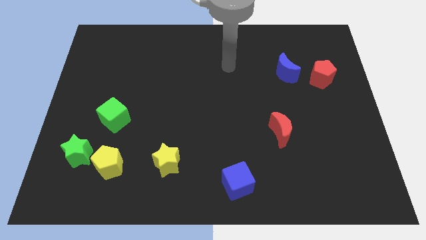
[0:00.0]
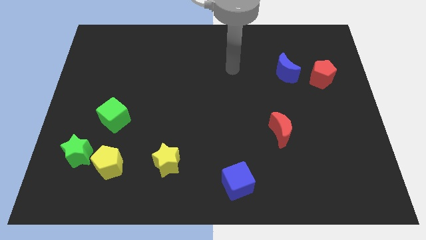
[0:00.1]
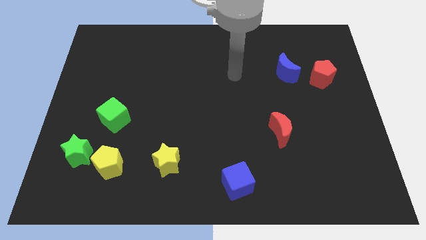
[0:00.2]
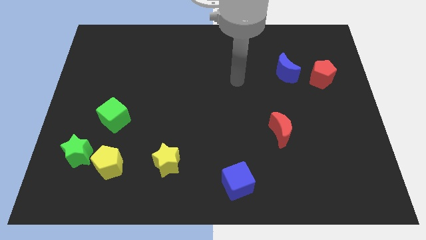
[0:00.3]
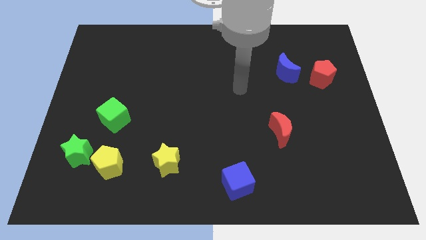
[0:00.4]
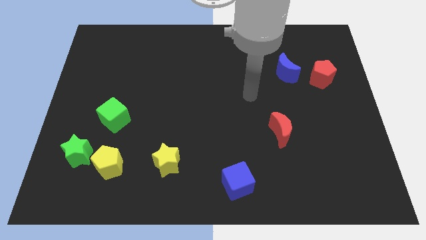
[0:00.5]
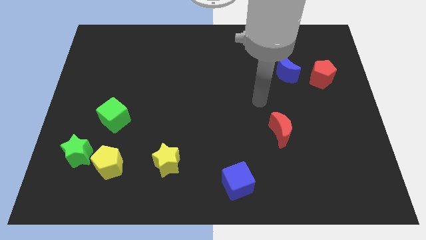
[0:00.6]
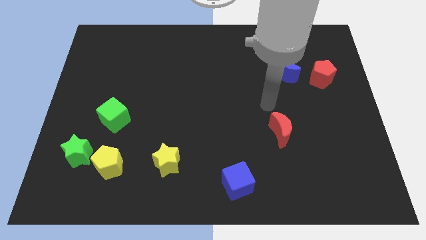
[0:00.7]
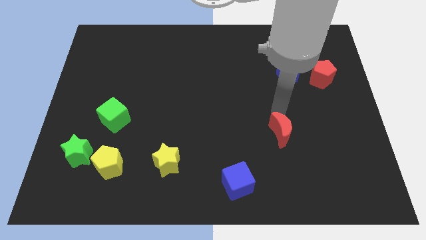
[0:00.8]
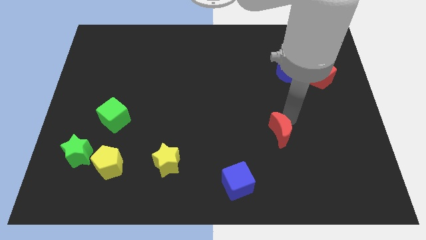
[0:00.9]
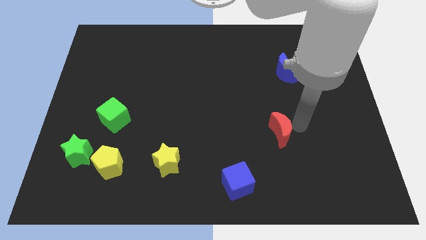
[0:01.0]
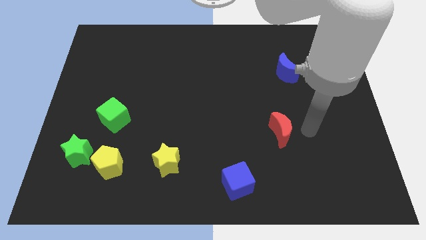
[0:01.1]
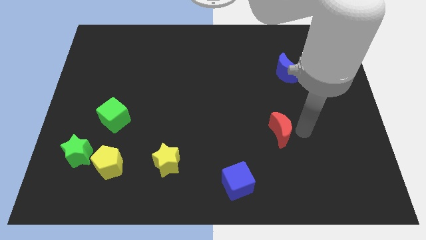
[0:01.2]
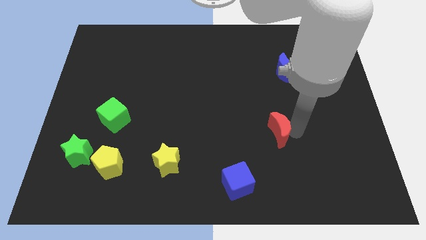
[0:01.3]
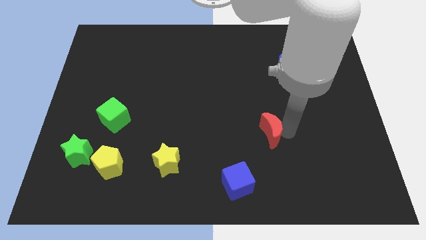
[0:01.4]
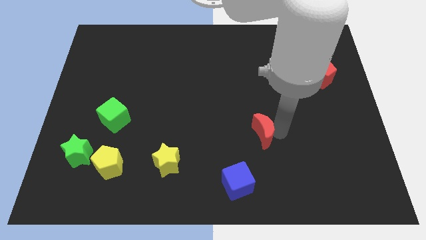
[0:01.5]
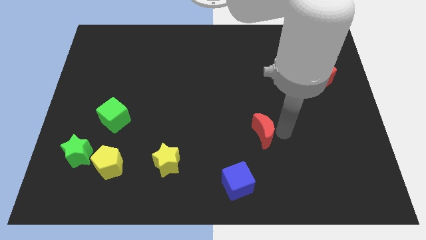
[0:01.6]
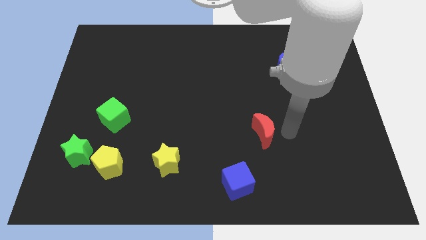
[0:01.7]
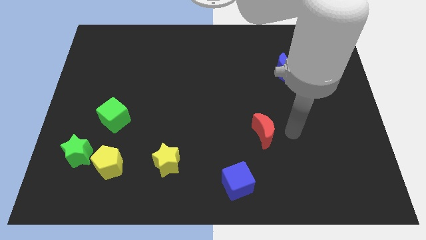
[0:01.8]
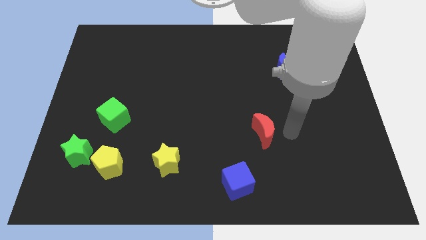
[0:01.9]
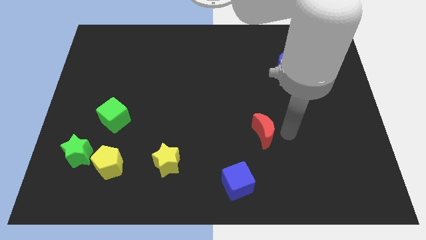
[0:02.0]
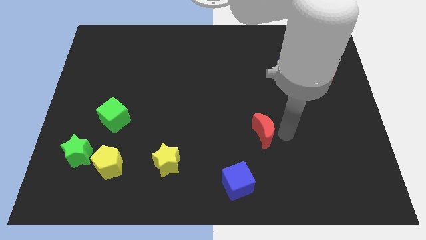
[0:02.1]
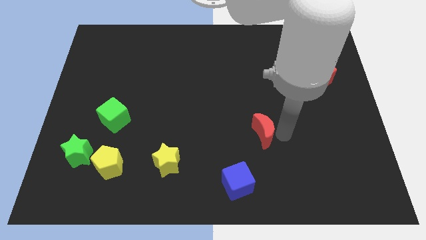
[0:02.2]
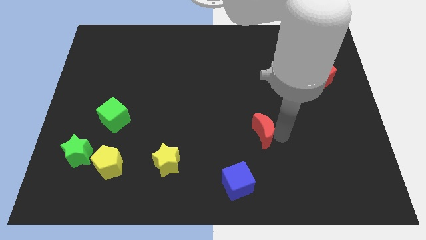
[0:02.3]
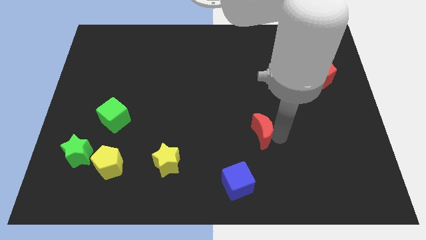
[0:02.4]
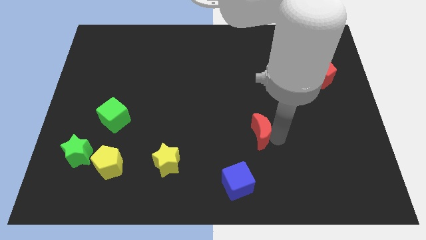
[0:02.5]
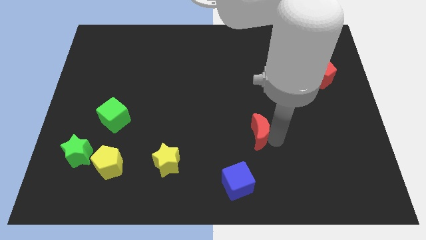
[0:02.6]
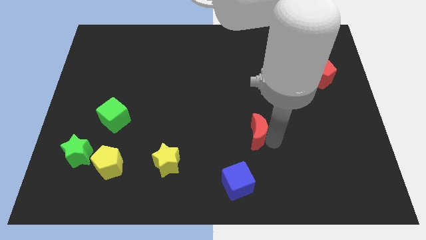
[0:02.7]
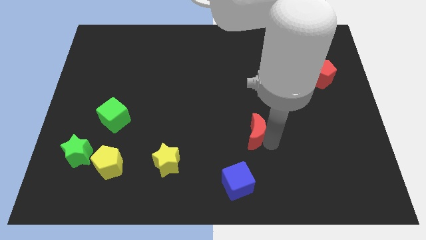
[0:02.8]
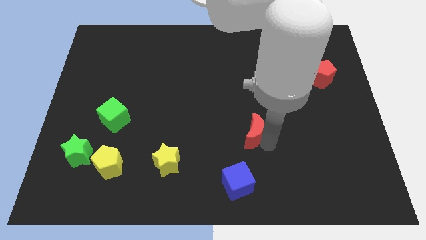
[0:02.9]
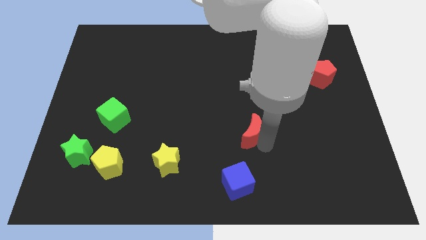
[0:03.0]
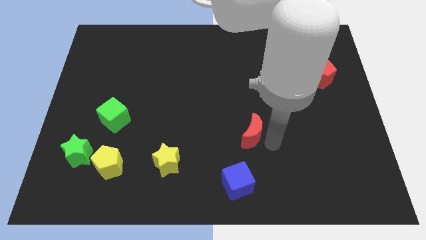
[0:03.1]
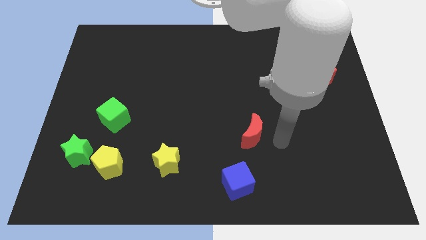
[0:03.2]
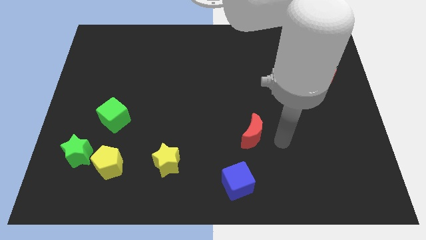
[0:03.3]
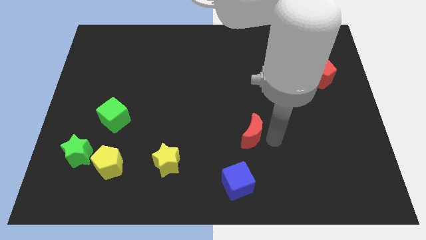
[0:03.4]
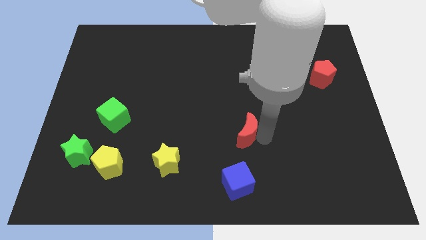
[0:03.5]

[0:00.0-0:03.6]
move the red moon a little bit to the left

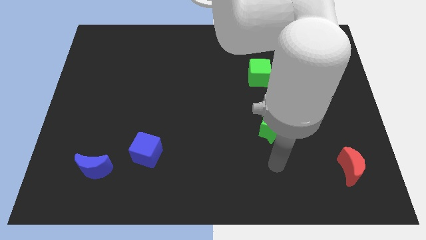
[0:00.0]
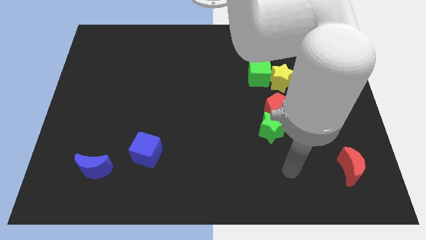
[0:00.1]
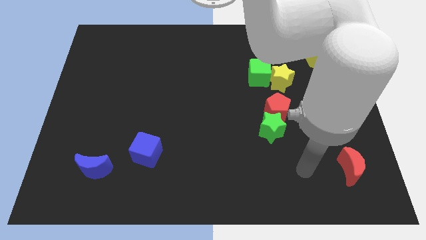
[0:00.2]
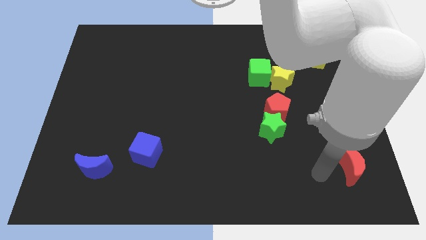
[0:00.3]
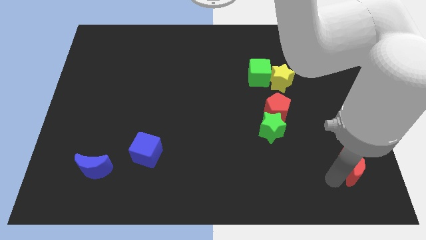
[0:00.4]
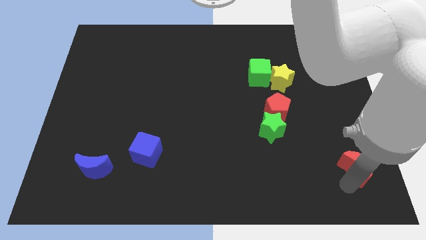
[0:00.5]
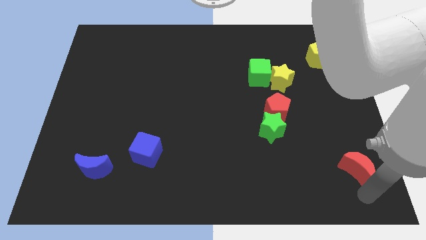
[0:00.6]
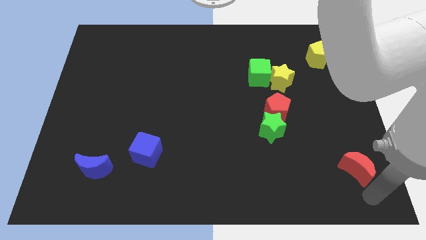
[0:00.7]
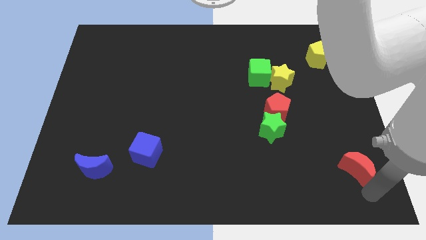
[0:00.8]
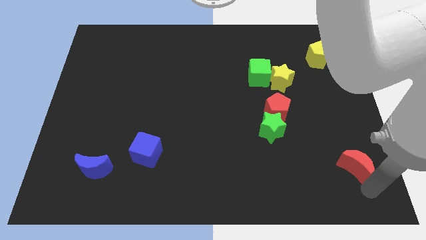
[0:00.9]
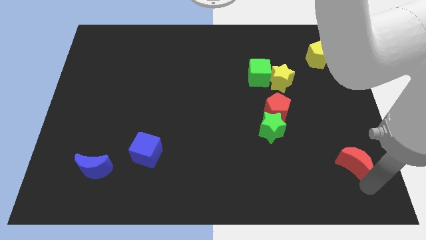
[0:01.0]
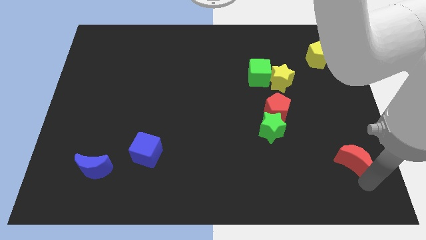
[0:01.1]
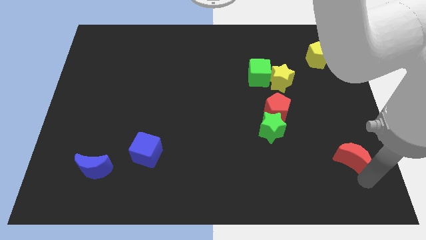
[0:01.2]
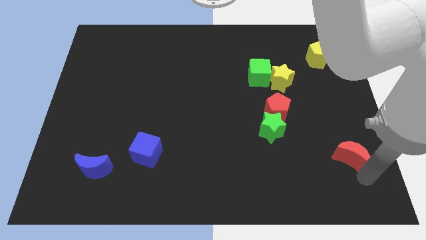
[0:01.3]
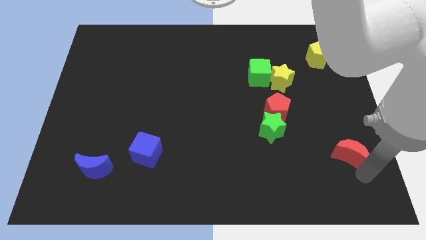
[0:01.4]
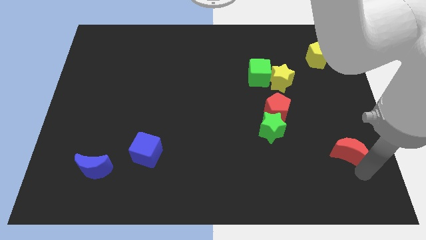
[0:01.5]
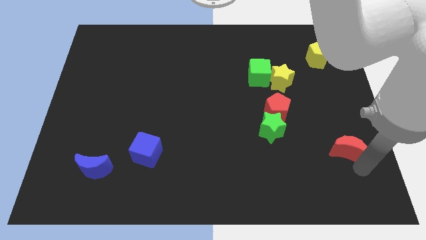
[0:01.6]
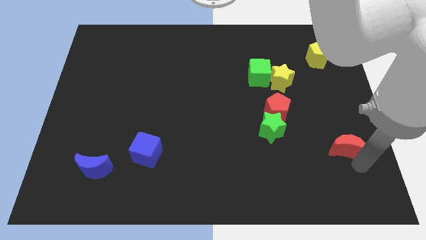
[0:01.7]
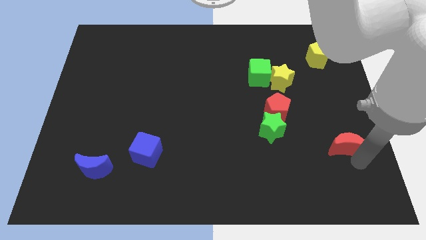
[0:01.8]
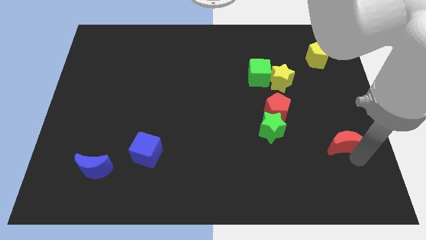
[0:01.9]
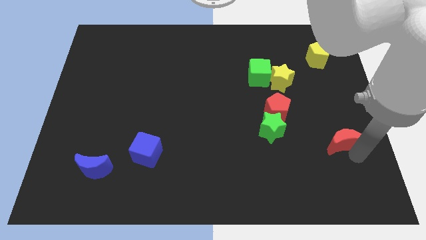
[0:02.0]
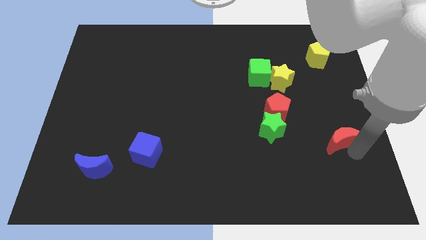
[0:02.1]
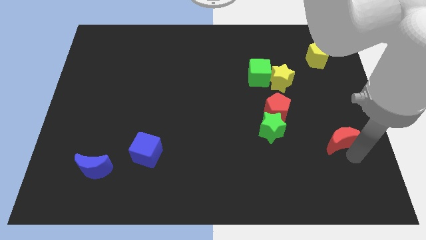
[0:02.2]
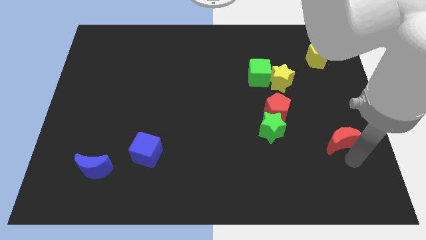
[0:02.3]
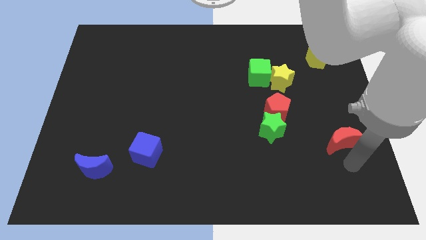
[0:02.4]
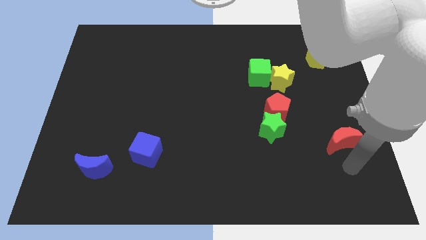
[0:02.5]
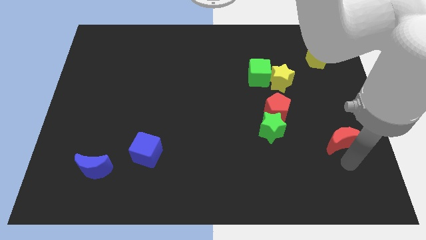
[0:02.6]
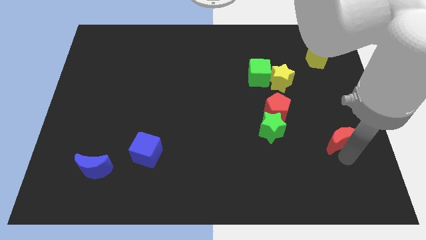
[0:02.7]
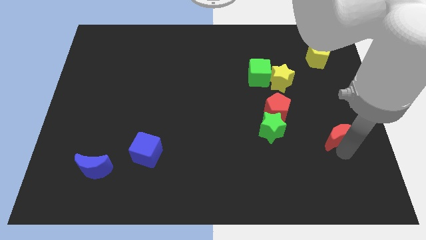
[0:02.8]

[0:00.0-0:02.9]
slightly push the red moon up

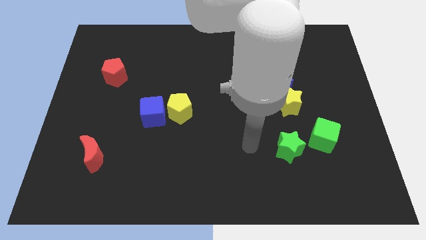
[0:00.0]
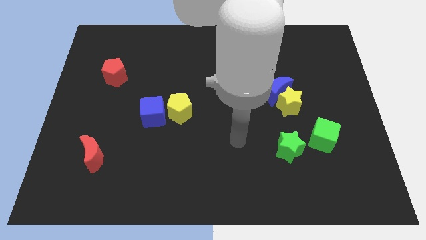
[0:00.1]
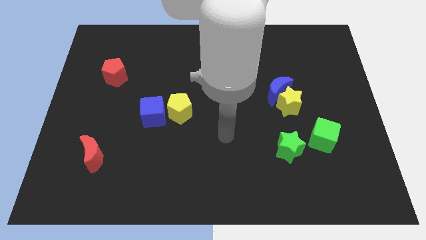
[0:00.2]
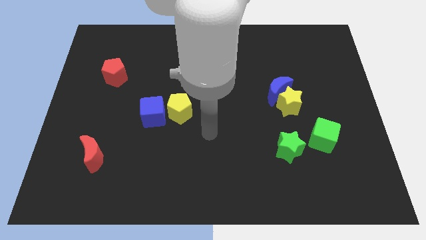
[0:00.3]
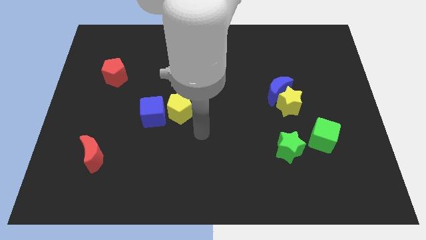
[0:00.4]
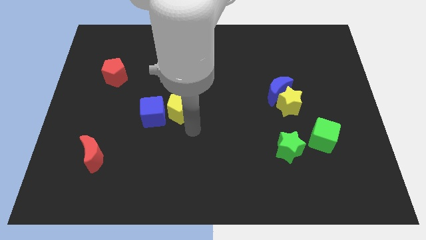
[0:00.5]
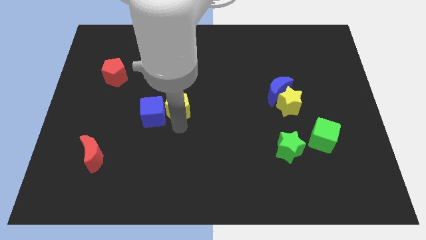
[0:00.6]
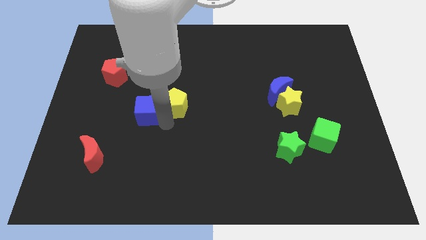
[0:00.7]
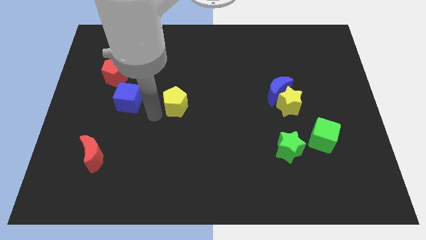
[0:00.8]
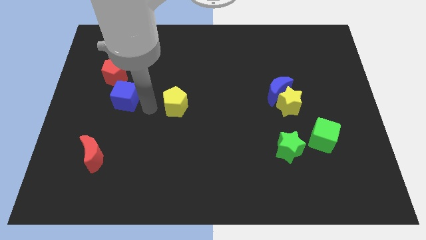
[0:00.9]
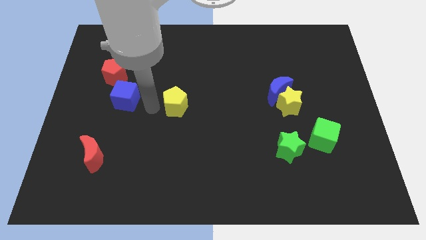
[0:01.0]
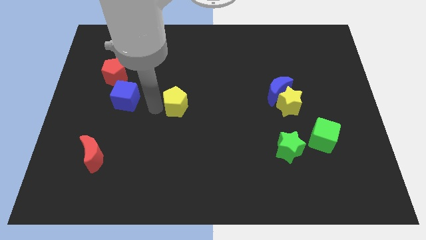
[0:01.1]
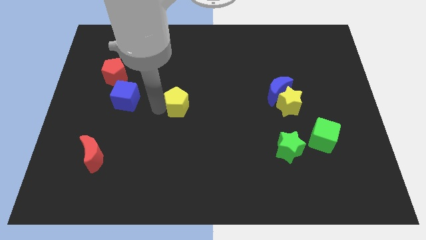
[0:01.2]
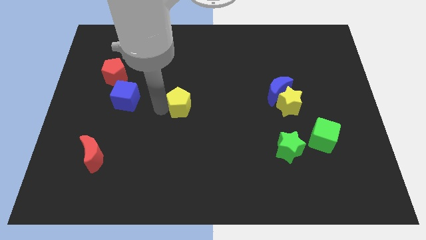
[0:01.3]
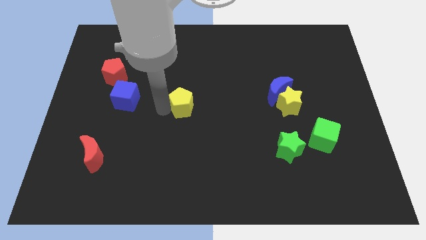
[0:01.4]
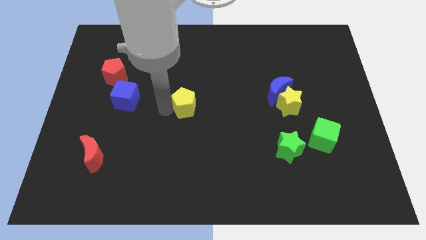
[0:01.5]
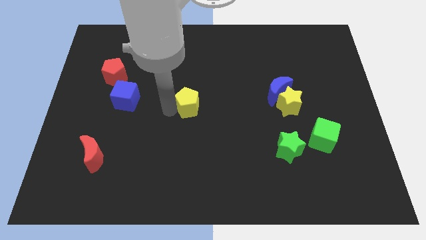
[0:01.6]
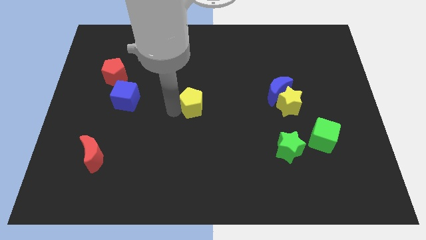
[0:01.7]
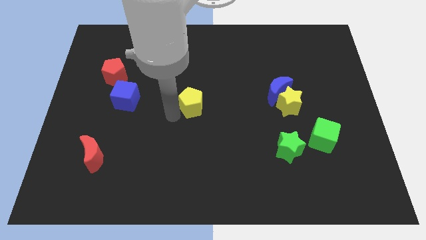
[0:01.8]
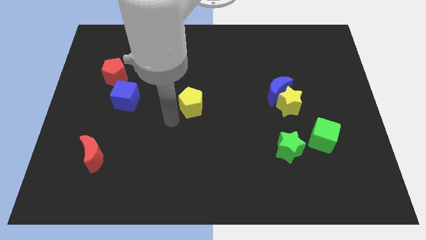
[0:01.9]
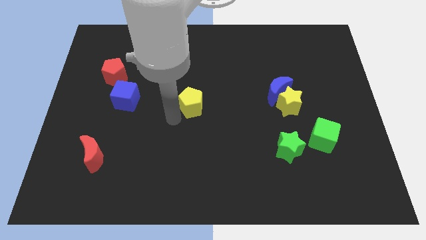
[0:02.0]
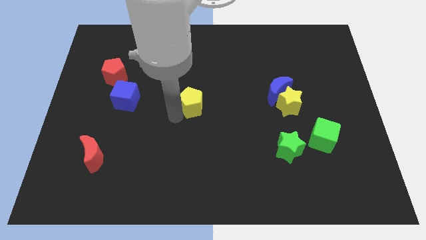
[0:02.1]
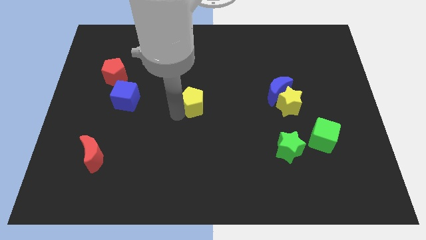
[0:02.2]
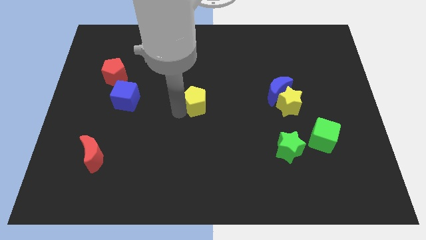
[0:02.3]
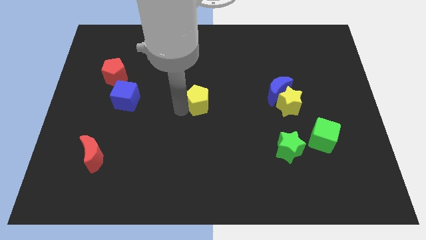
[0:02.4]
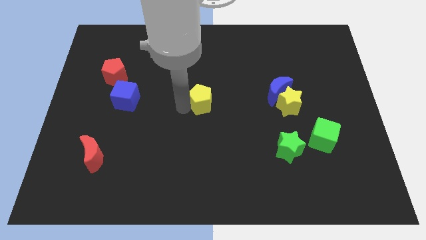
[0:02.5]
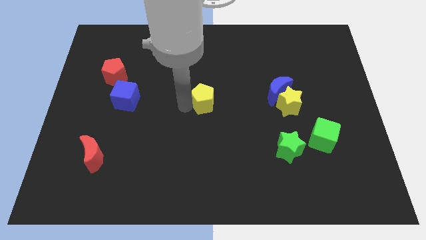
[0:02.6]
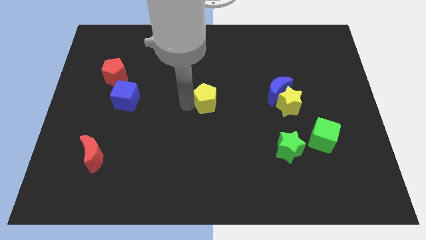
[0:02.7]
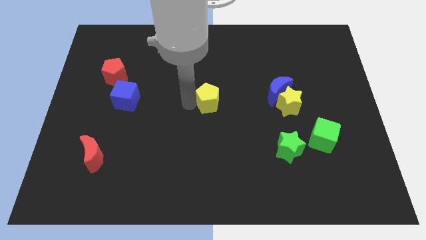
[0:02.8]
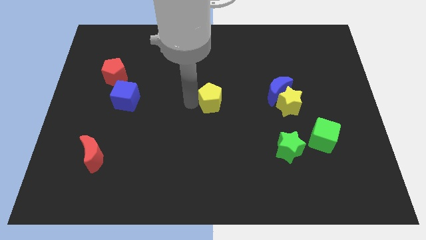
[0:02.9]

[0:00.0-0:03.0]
slightly move the yellow pentagon diagonally up and right
